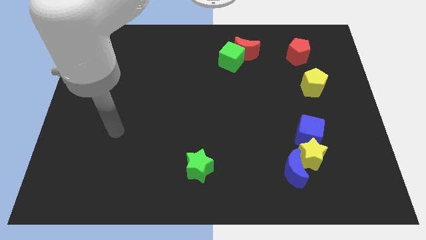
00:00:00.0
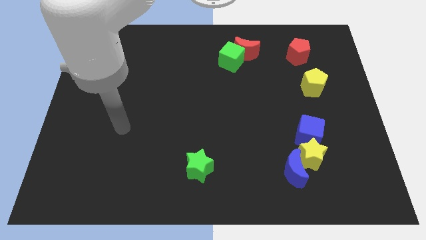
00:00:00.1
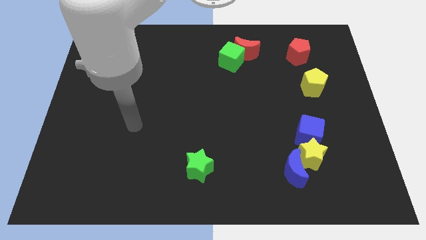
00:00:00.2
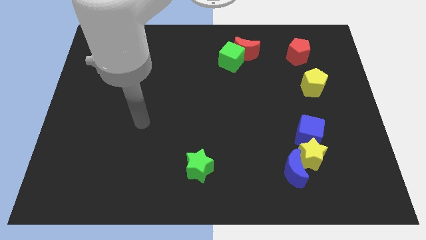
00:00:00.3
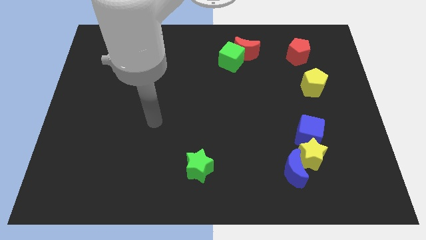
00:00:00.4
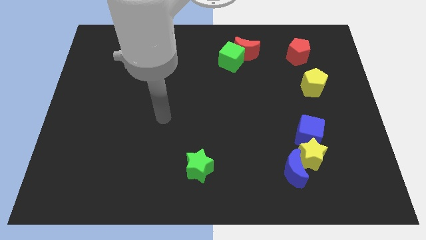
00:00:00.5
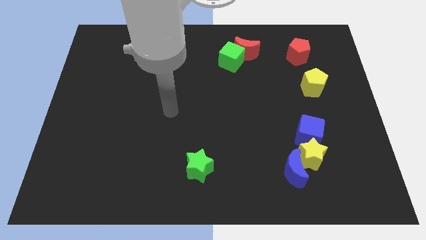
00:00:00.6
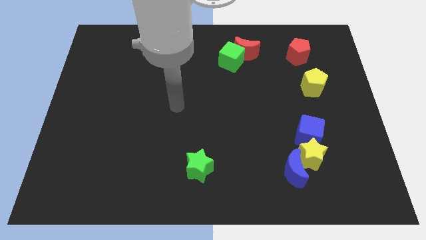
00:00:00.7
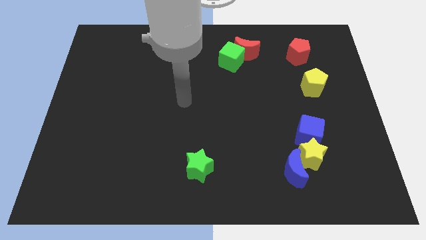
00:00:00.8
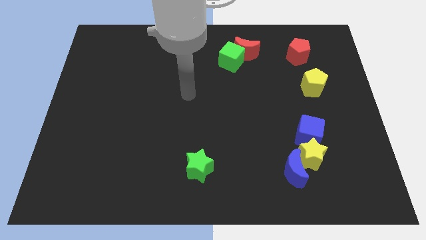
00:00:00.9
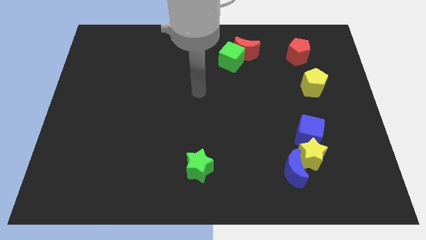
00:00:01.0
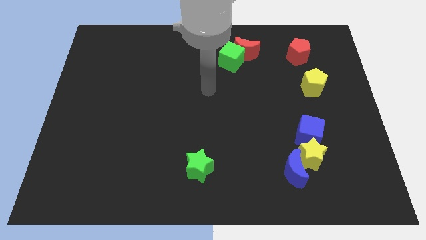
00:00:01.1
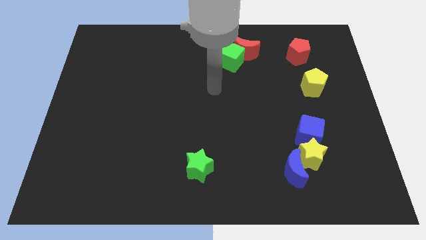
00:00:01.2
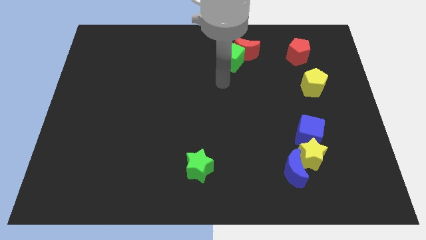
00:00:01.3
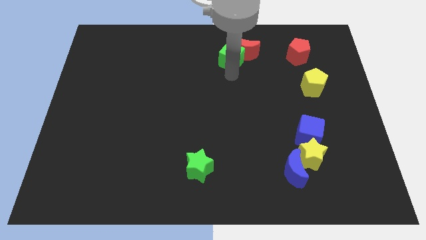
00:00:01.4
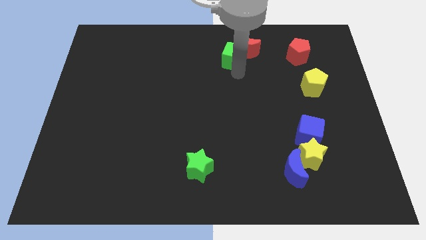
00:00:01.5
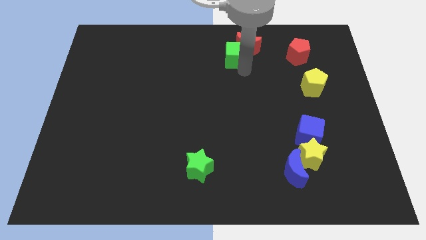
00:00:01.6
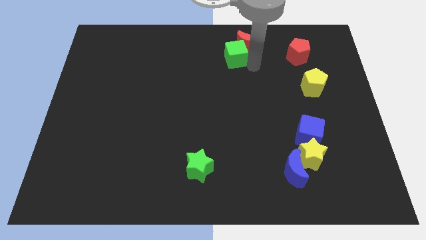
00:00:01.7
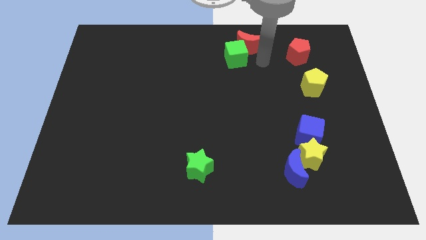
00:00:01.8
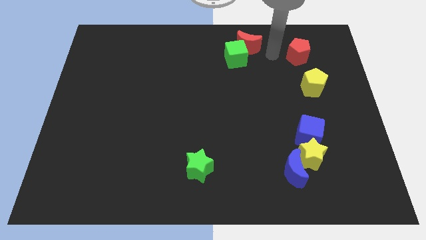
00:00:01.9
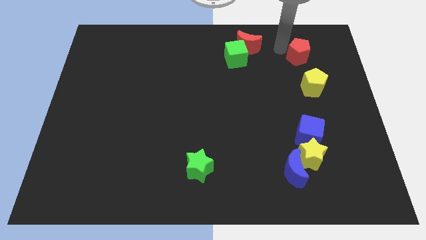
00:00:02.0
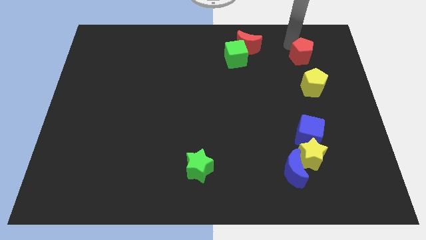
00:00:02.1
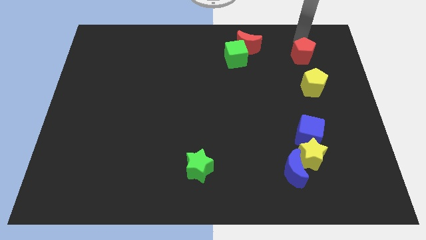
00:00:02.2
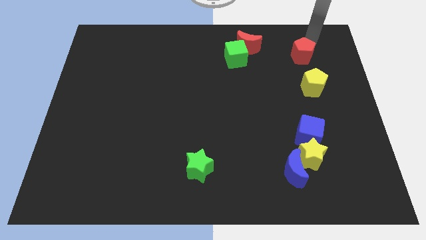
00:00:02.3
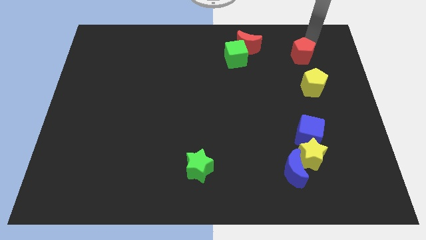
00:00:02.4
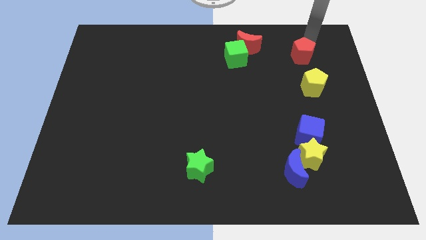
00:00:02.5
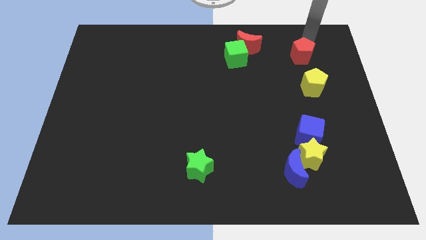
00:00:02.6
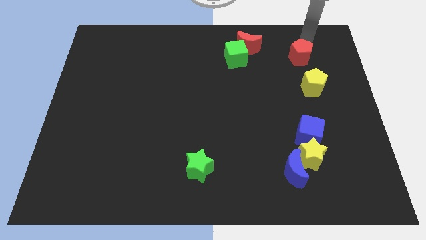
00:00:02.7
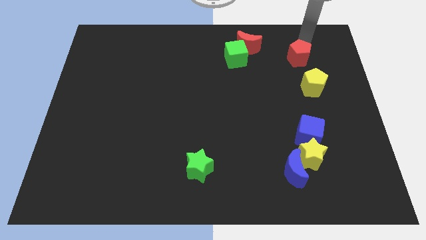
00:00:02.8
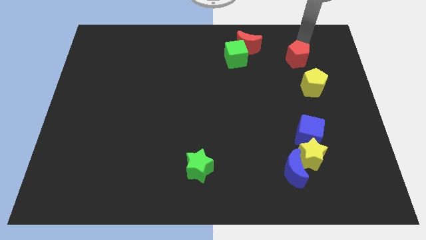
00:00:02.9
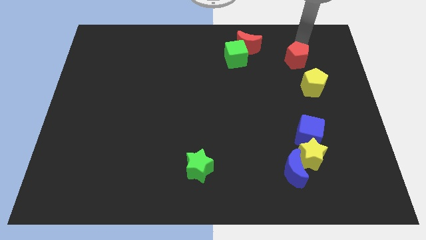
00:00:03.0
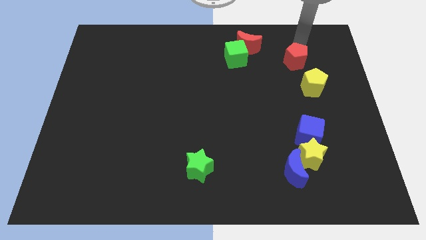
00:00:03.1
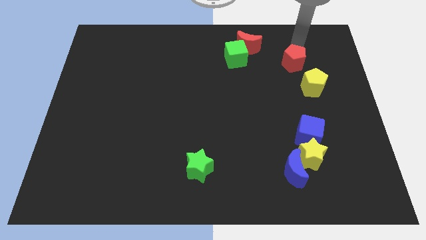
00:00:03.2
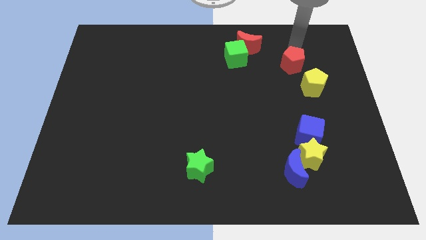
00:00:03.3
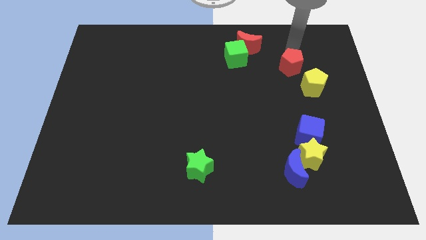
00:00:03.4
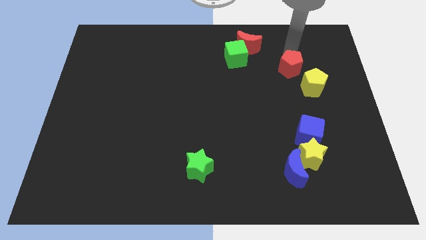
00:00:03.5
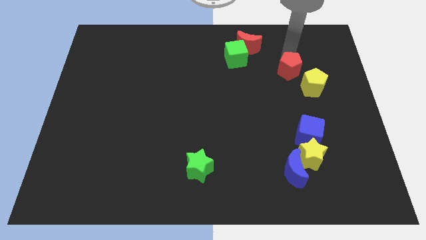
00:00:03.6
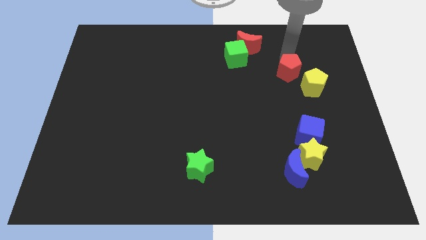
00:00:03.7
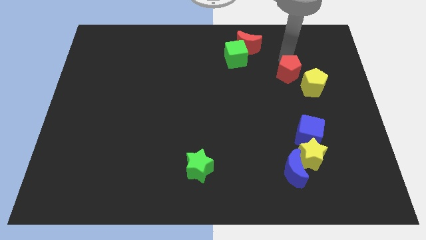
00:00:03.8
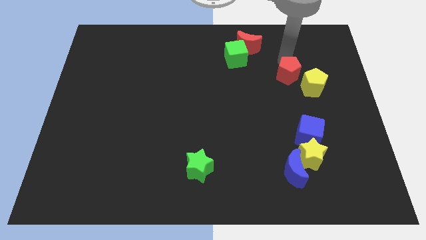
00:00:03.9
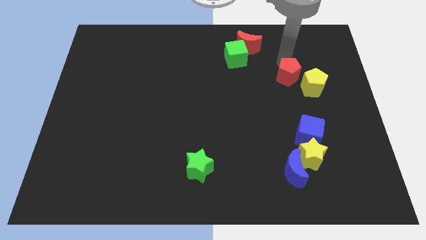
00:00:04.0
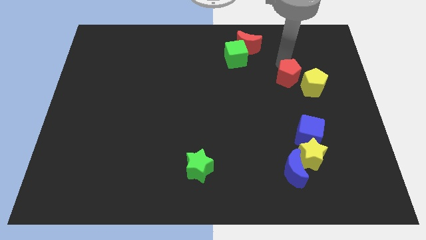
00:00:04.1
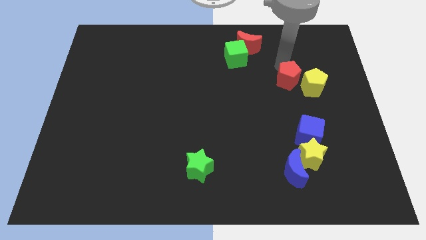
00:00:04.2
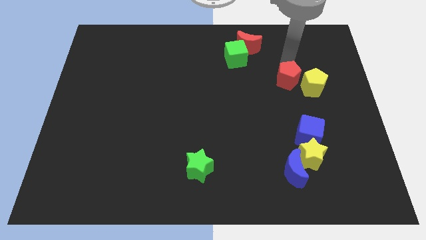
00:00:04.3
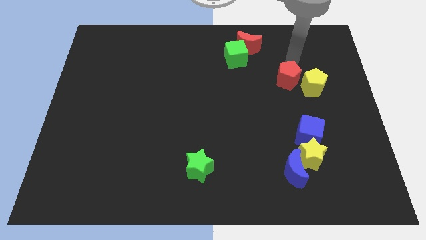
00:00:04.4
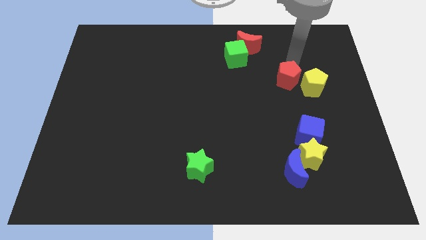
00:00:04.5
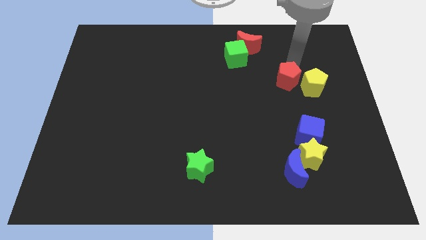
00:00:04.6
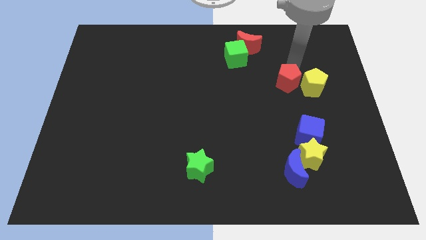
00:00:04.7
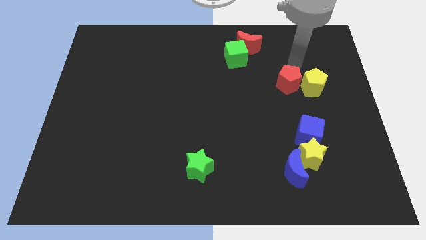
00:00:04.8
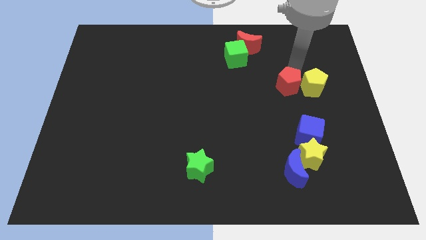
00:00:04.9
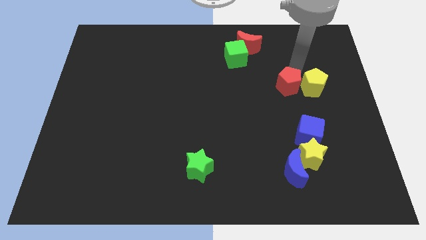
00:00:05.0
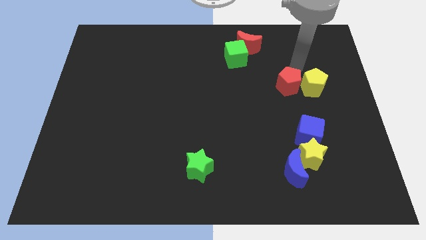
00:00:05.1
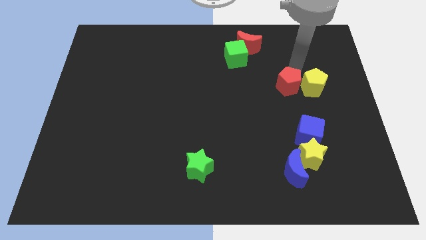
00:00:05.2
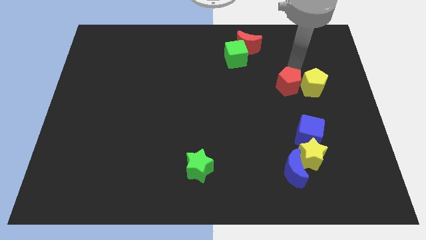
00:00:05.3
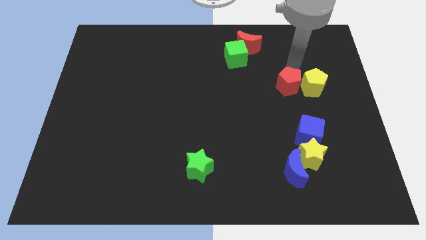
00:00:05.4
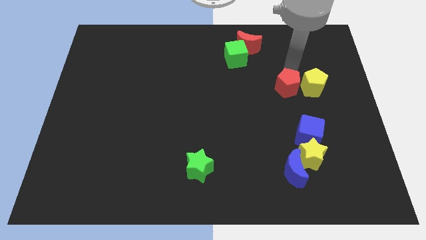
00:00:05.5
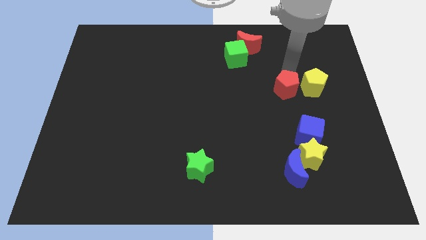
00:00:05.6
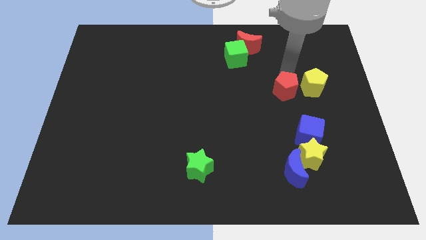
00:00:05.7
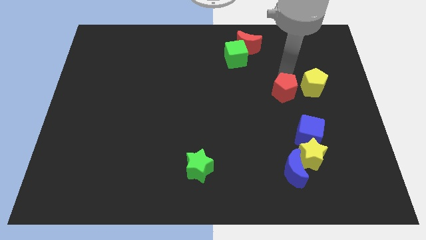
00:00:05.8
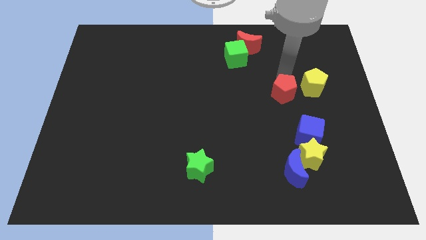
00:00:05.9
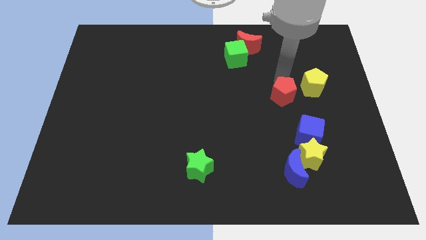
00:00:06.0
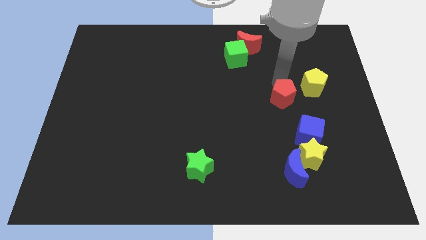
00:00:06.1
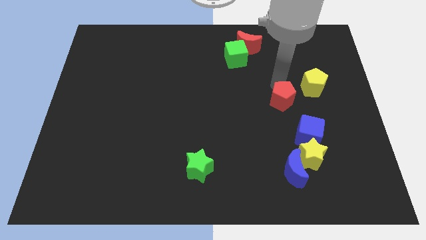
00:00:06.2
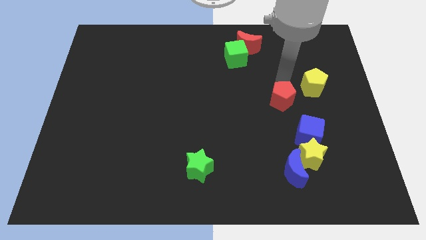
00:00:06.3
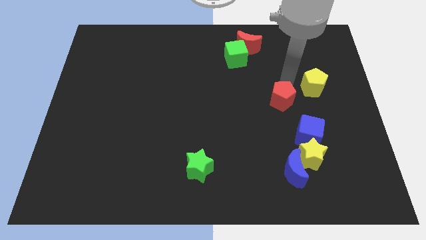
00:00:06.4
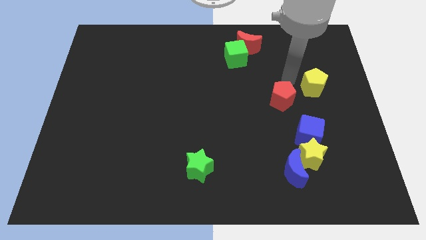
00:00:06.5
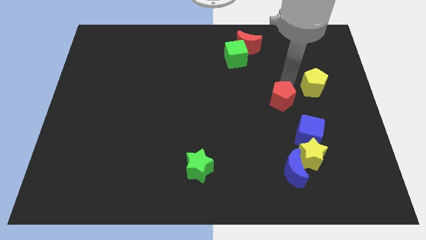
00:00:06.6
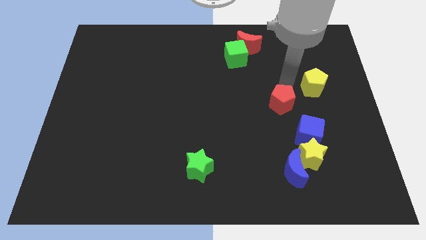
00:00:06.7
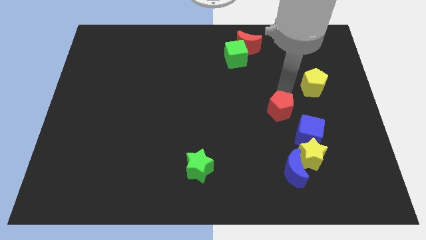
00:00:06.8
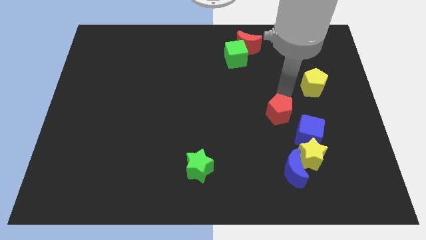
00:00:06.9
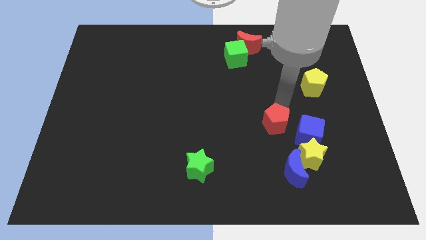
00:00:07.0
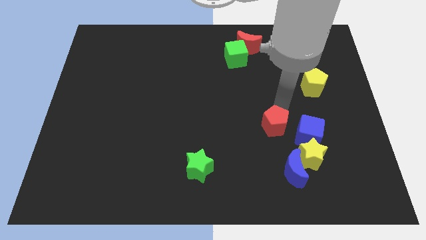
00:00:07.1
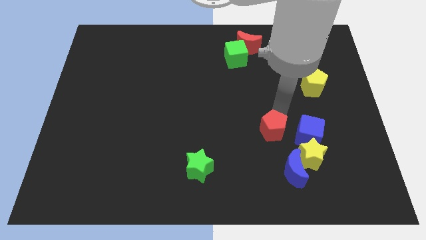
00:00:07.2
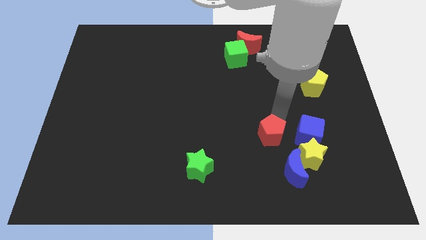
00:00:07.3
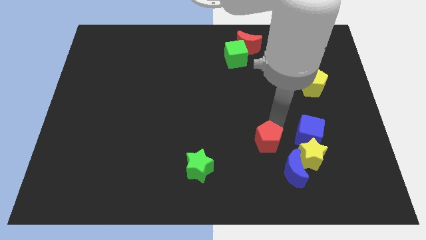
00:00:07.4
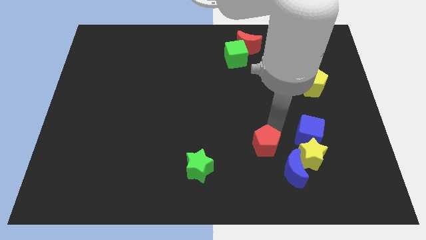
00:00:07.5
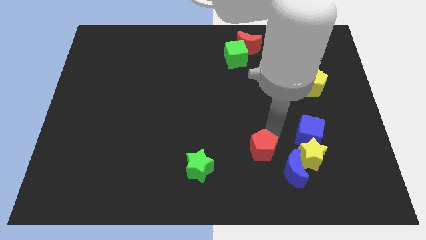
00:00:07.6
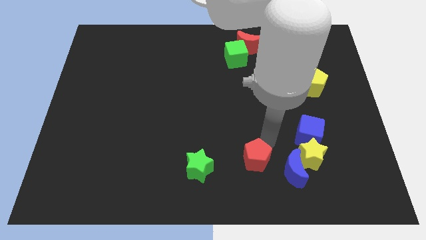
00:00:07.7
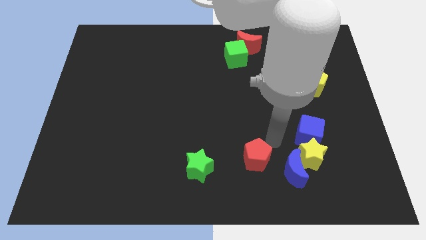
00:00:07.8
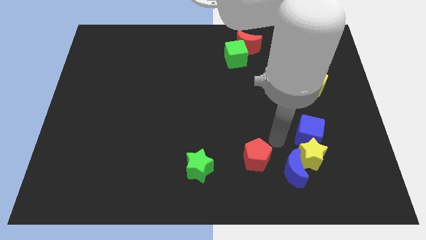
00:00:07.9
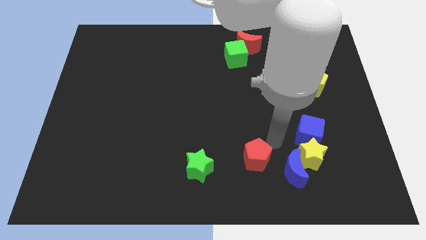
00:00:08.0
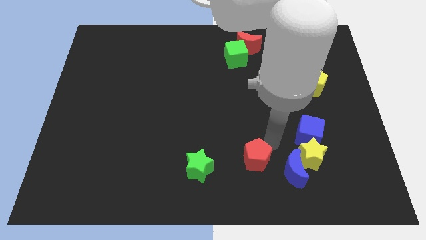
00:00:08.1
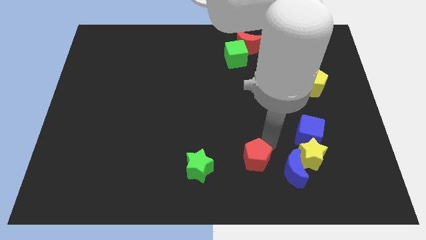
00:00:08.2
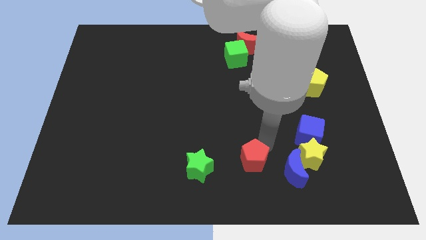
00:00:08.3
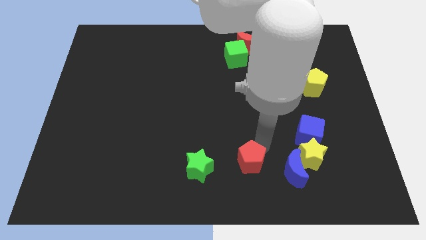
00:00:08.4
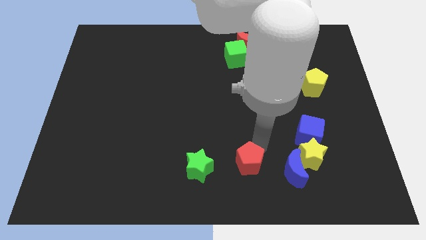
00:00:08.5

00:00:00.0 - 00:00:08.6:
push the red pentagon to the bottom
